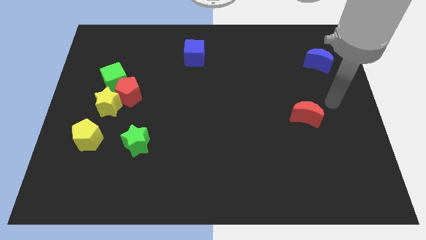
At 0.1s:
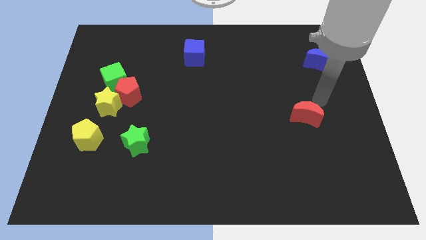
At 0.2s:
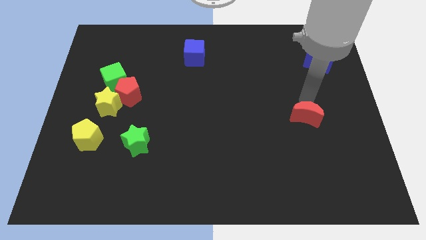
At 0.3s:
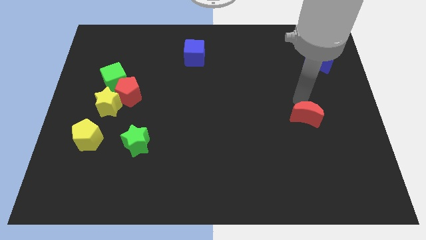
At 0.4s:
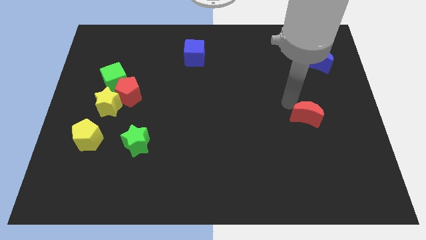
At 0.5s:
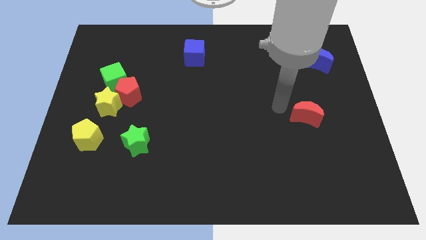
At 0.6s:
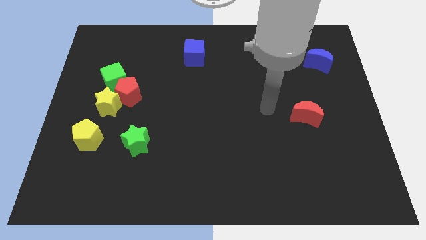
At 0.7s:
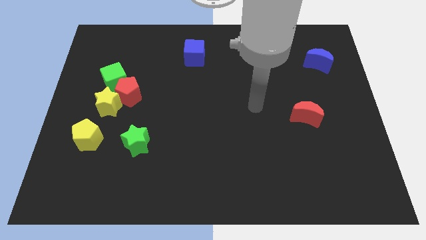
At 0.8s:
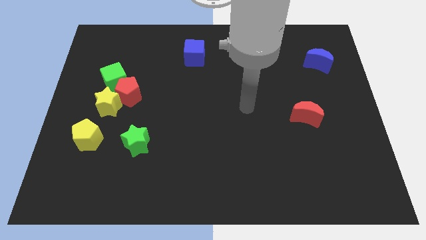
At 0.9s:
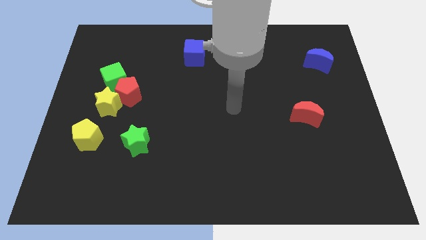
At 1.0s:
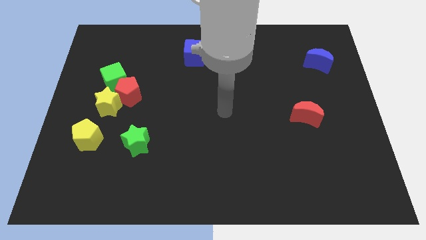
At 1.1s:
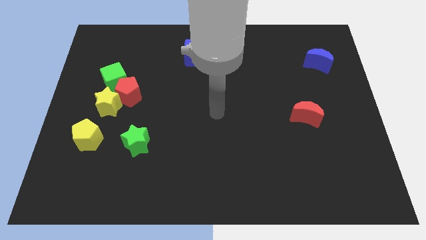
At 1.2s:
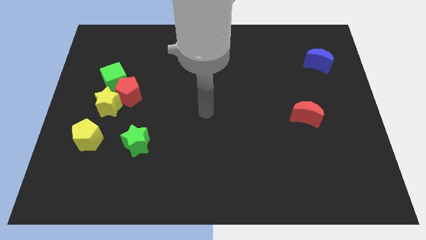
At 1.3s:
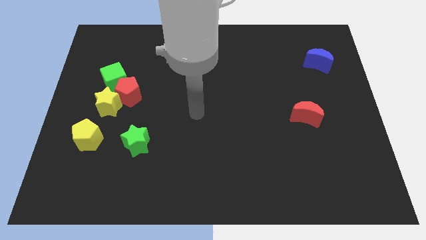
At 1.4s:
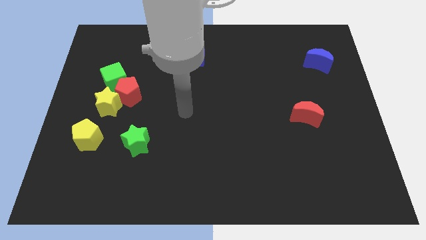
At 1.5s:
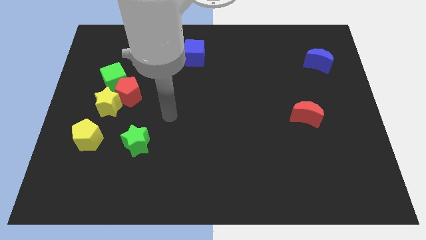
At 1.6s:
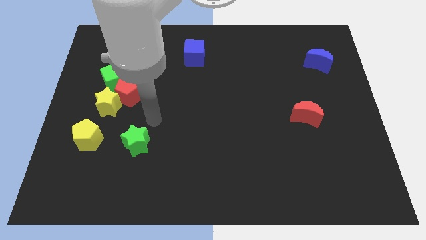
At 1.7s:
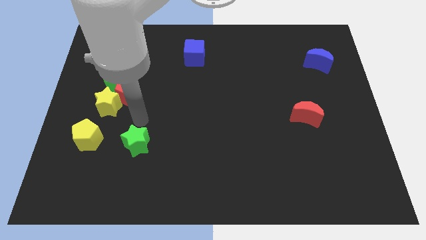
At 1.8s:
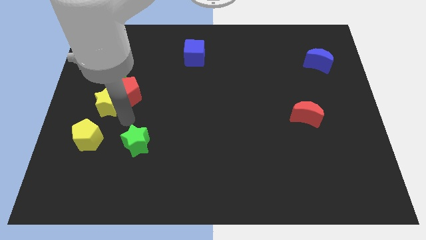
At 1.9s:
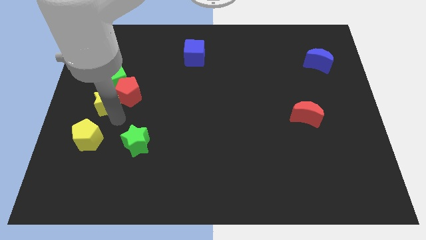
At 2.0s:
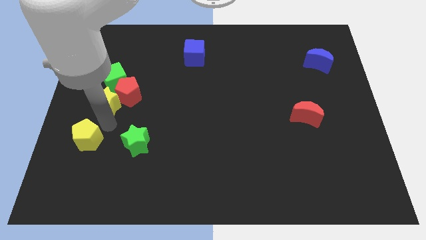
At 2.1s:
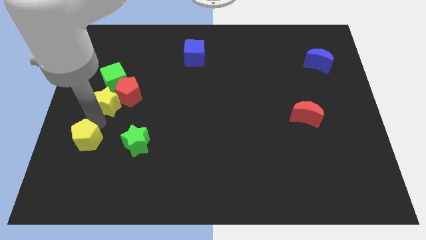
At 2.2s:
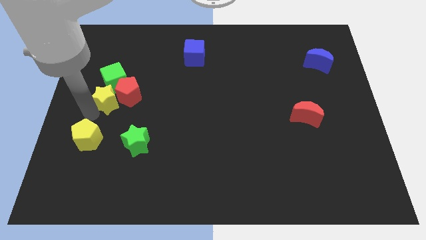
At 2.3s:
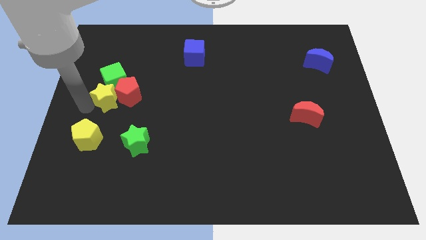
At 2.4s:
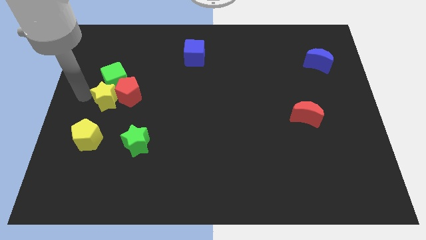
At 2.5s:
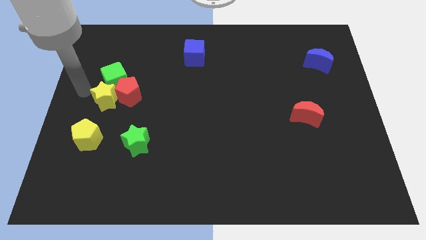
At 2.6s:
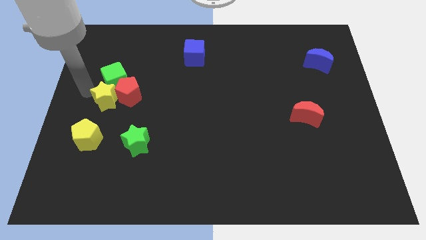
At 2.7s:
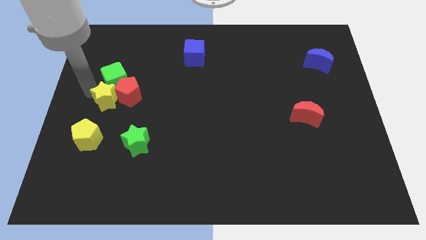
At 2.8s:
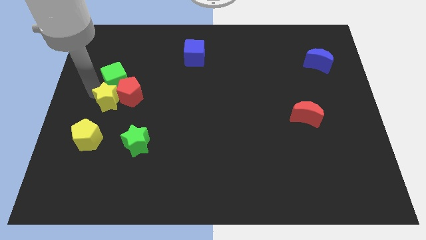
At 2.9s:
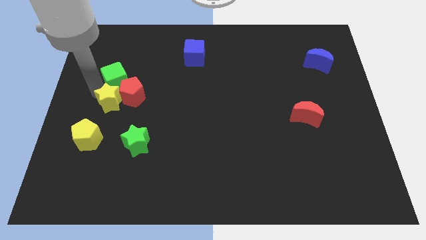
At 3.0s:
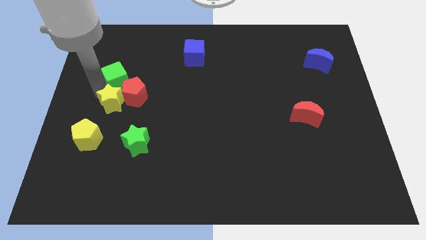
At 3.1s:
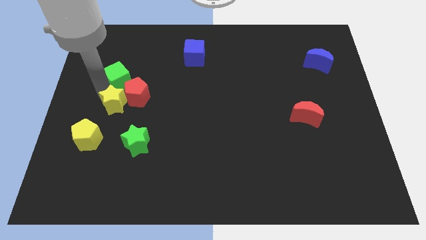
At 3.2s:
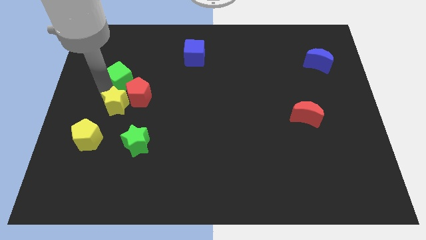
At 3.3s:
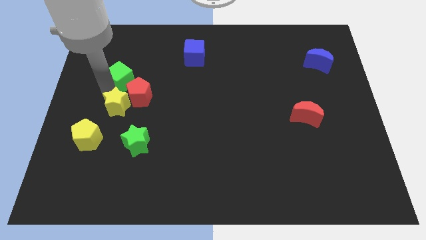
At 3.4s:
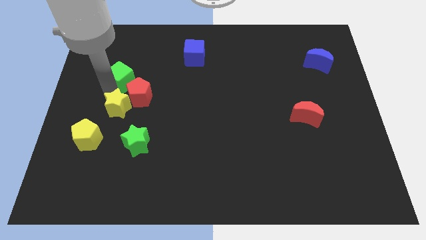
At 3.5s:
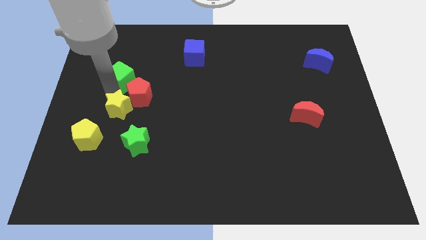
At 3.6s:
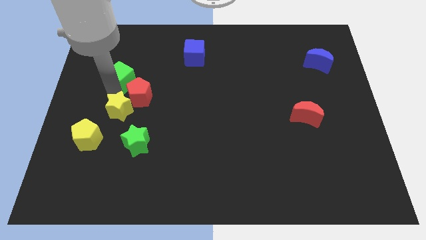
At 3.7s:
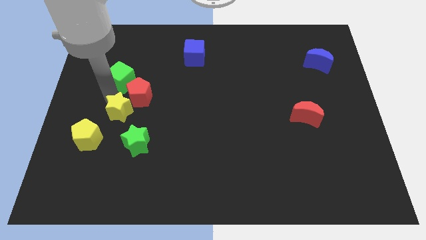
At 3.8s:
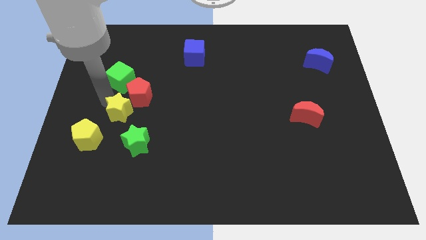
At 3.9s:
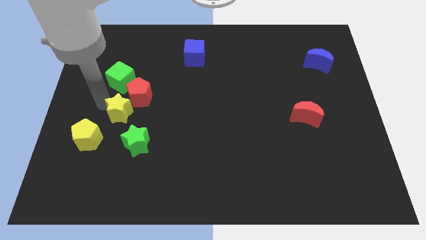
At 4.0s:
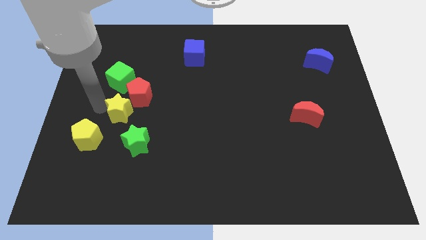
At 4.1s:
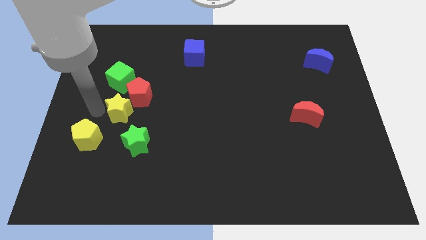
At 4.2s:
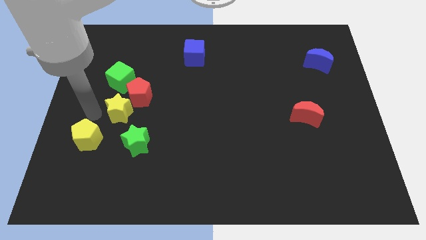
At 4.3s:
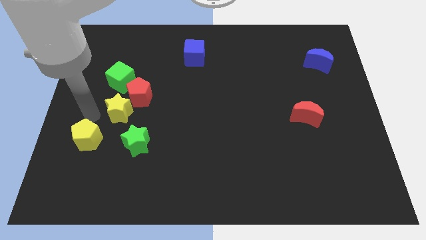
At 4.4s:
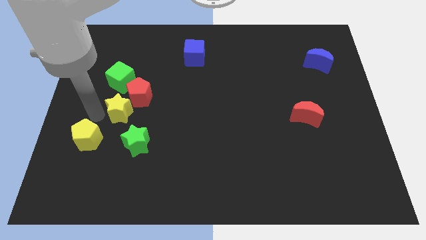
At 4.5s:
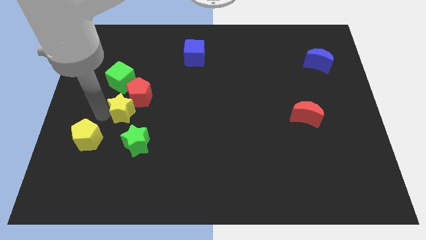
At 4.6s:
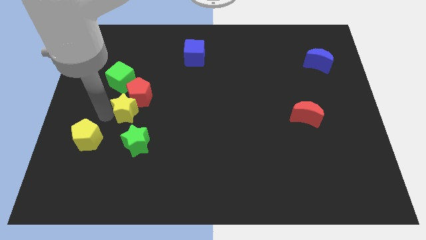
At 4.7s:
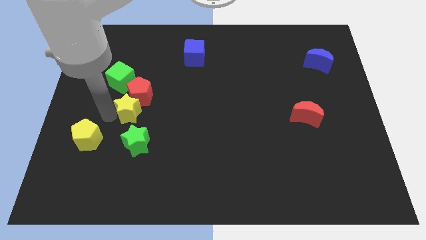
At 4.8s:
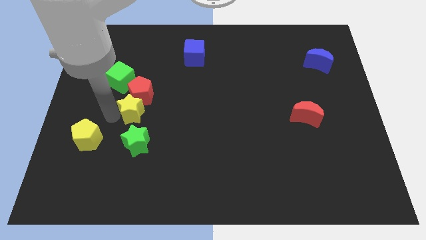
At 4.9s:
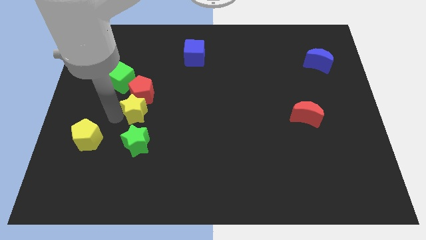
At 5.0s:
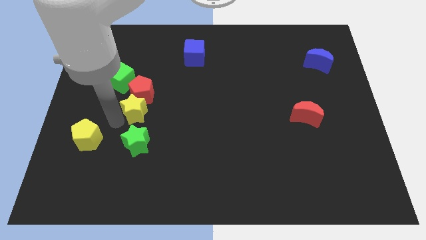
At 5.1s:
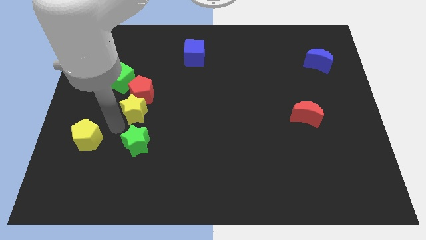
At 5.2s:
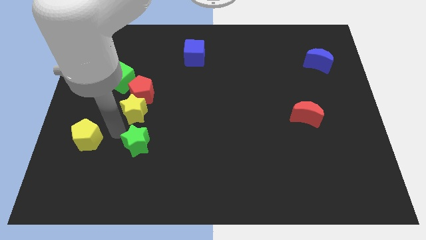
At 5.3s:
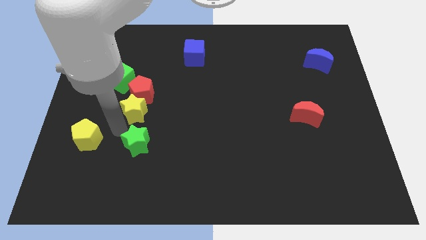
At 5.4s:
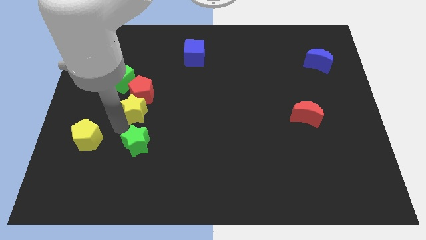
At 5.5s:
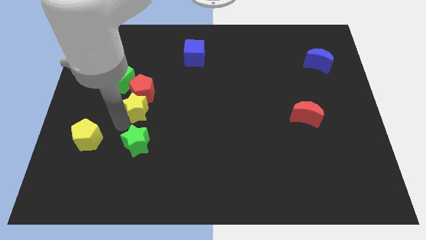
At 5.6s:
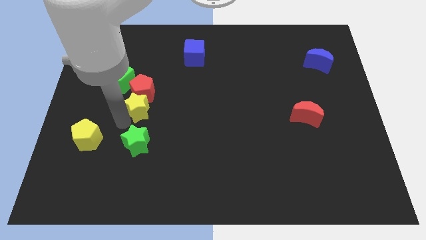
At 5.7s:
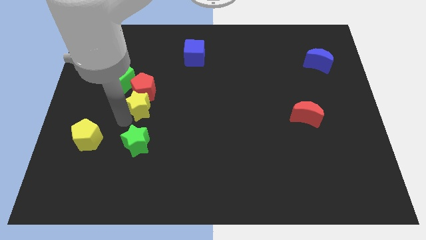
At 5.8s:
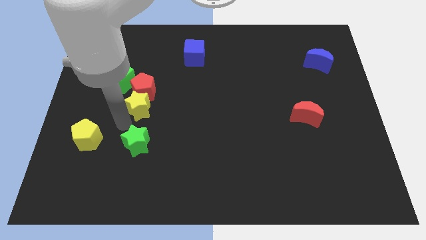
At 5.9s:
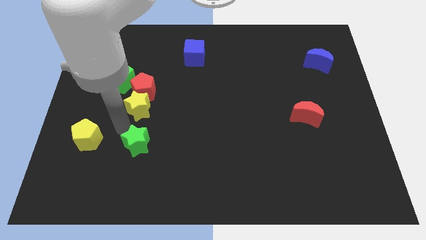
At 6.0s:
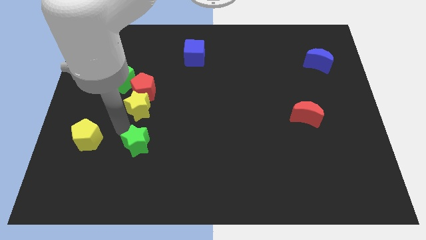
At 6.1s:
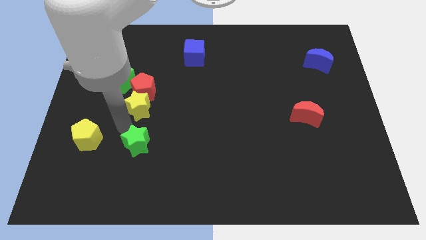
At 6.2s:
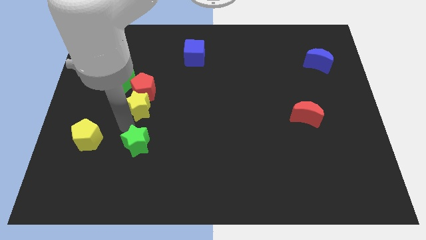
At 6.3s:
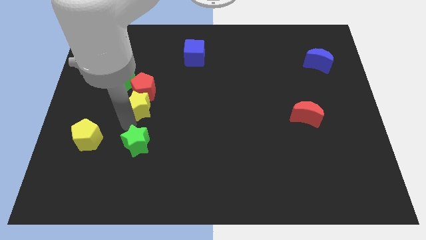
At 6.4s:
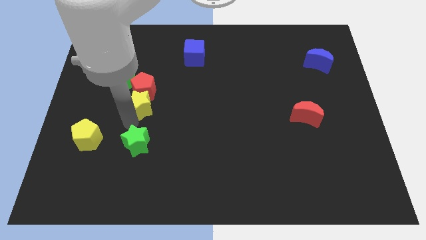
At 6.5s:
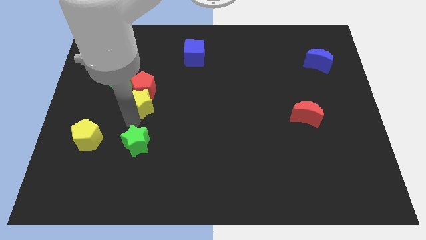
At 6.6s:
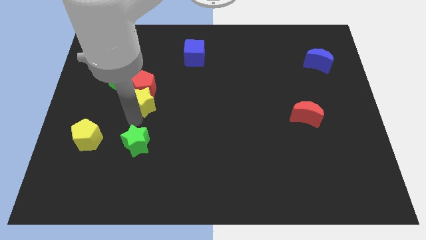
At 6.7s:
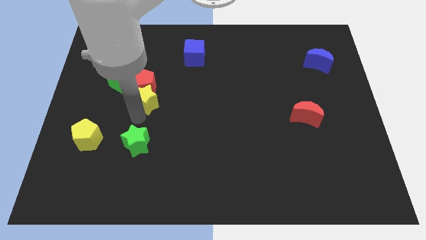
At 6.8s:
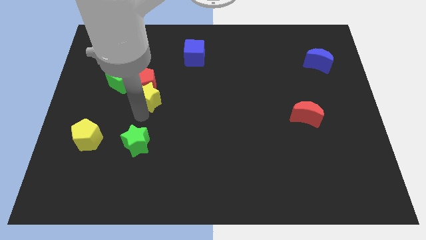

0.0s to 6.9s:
move the yellow star diagonally upwards and right a little

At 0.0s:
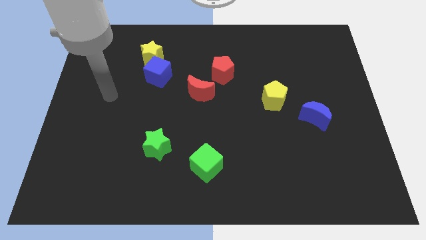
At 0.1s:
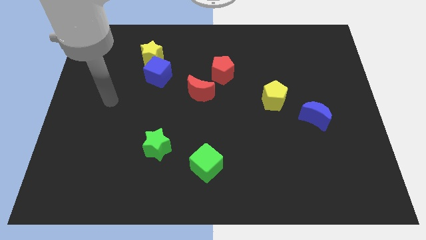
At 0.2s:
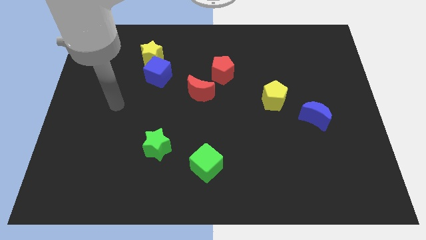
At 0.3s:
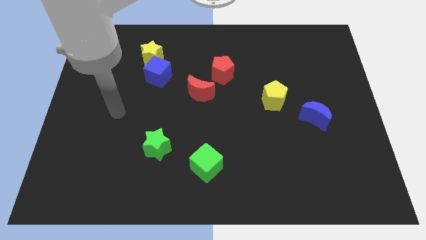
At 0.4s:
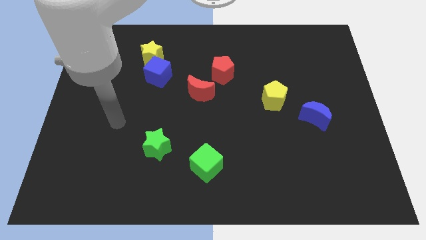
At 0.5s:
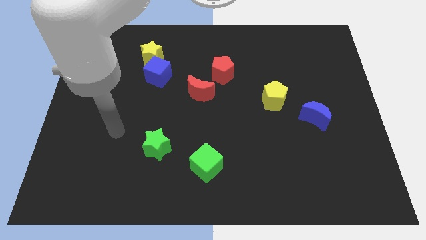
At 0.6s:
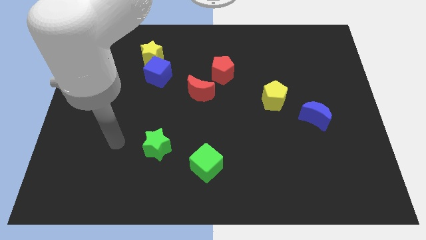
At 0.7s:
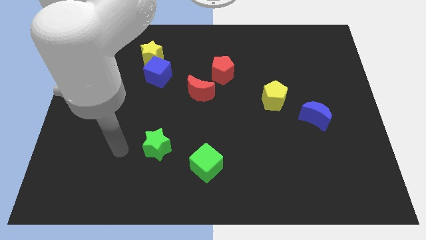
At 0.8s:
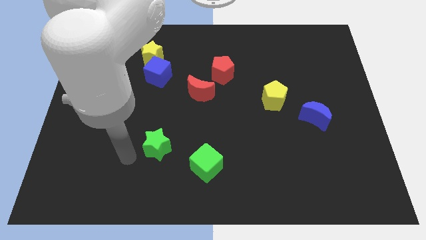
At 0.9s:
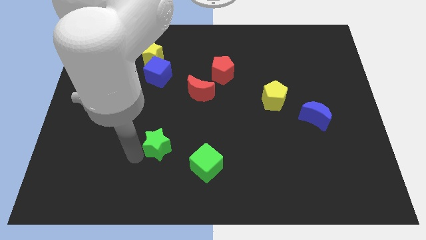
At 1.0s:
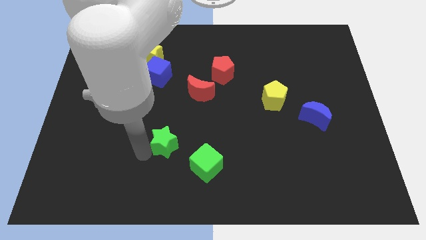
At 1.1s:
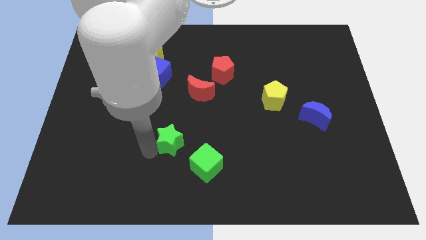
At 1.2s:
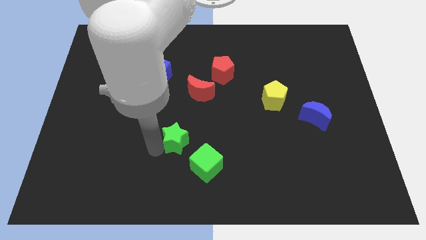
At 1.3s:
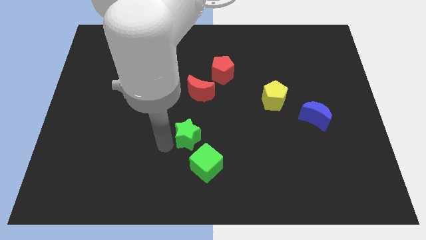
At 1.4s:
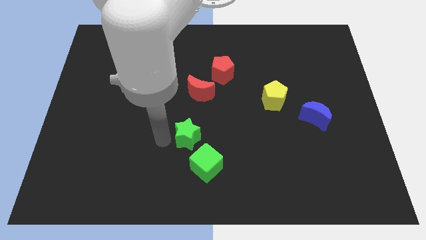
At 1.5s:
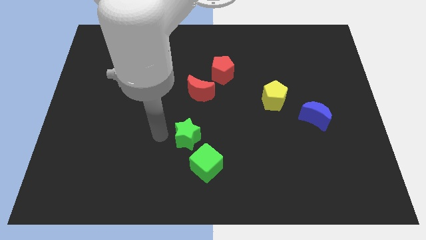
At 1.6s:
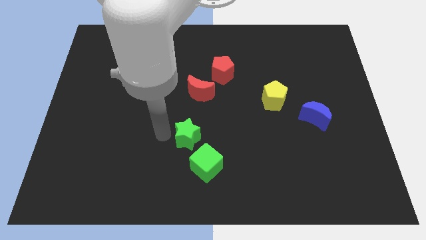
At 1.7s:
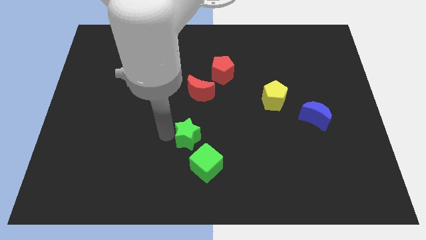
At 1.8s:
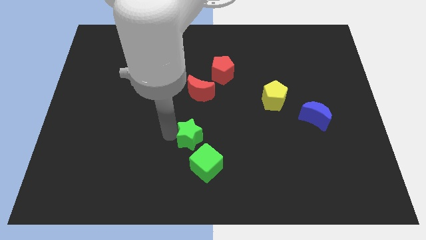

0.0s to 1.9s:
move the green star right somewhat
